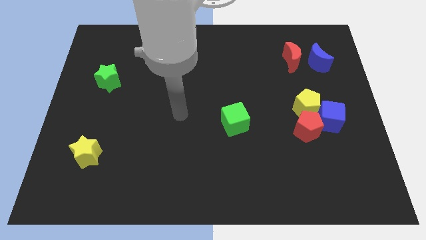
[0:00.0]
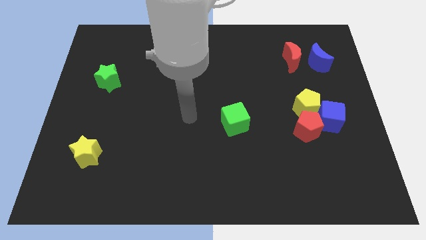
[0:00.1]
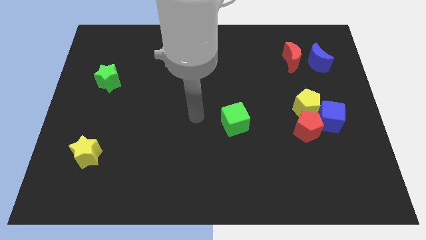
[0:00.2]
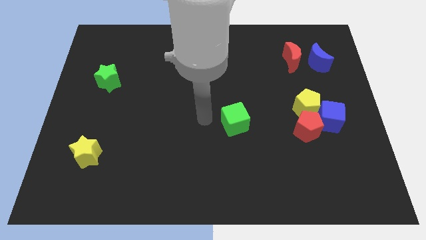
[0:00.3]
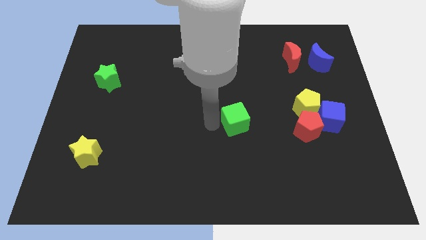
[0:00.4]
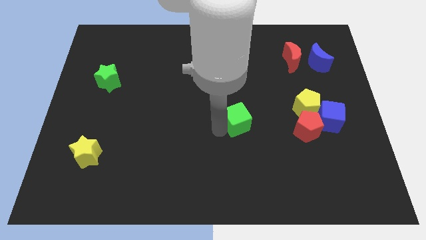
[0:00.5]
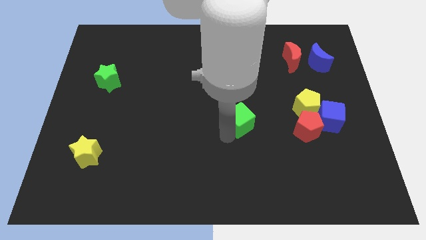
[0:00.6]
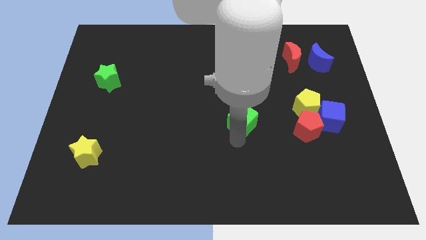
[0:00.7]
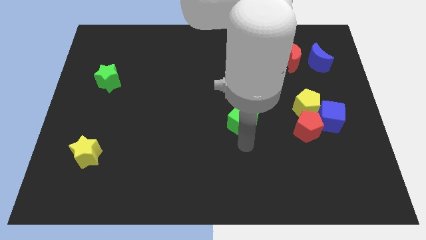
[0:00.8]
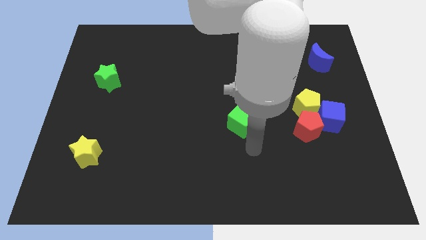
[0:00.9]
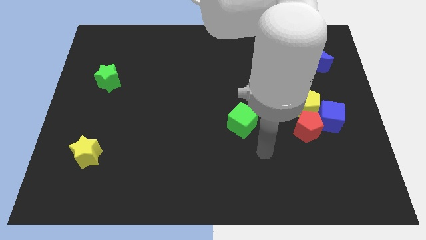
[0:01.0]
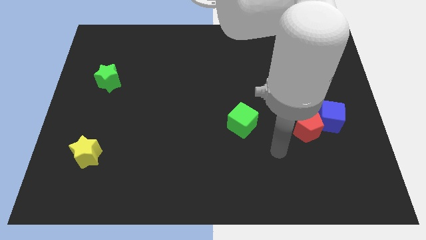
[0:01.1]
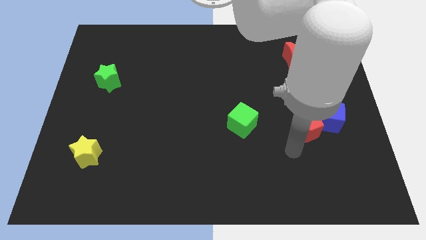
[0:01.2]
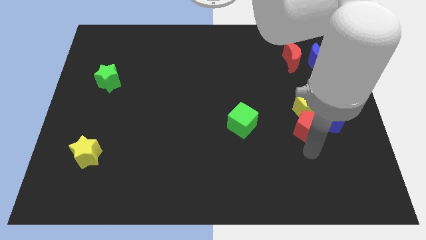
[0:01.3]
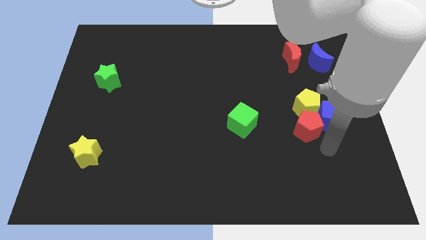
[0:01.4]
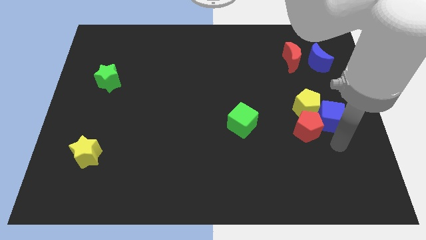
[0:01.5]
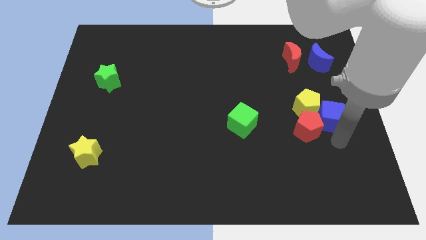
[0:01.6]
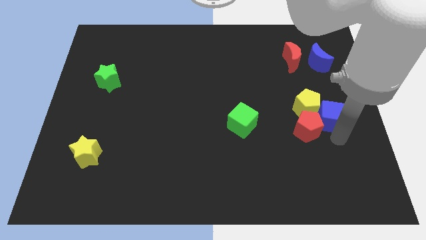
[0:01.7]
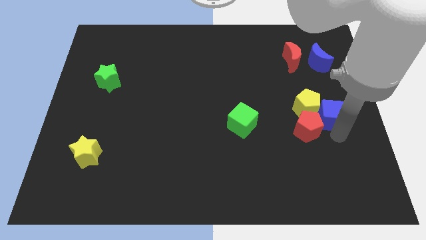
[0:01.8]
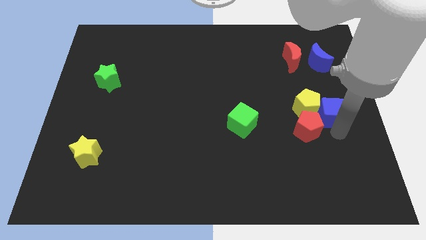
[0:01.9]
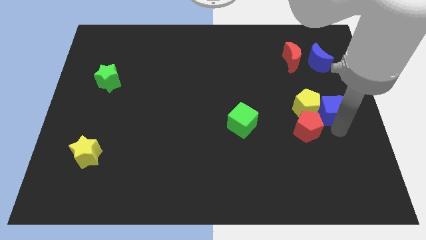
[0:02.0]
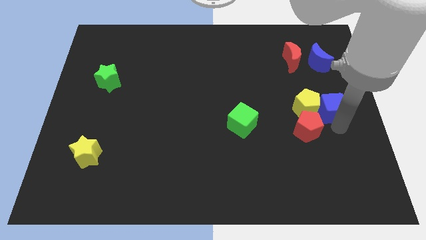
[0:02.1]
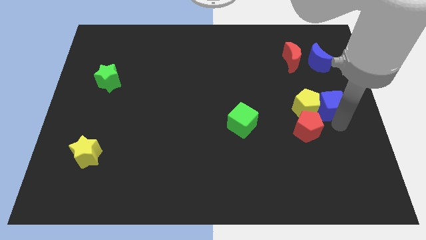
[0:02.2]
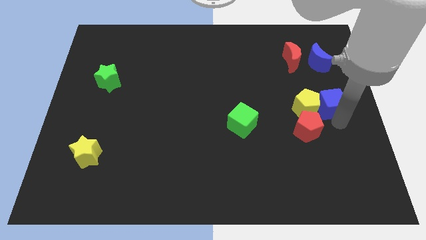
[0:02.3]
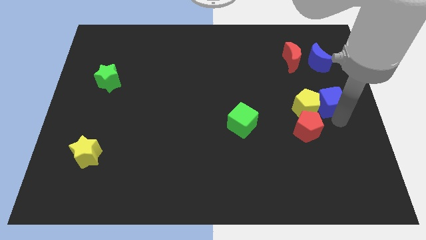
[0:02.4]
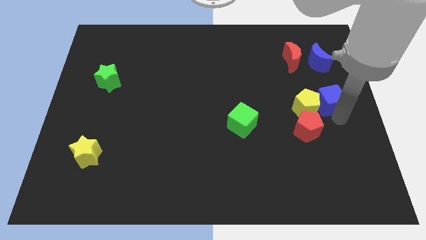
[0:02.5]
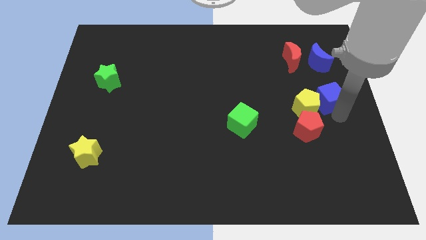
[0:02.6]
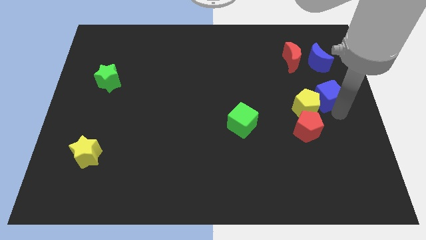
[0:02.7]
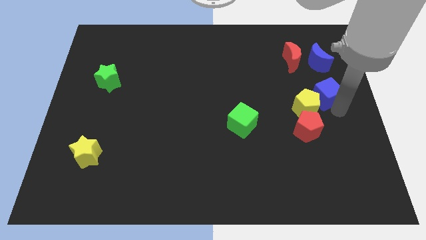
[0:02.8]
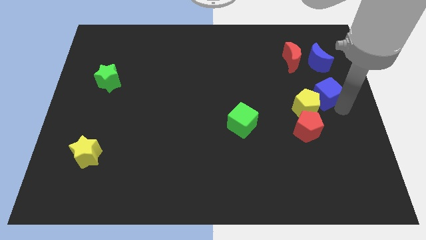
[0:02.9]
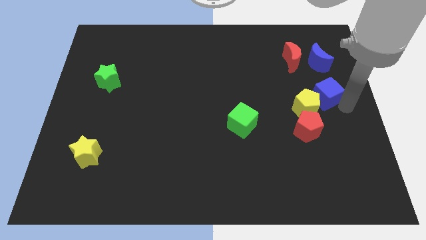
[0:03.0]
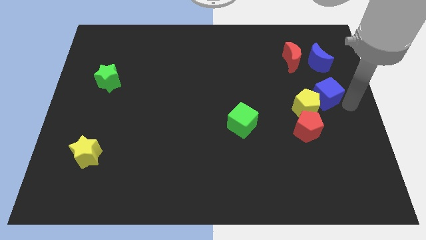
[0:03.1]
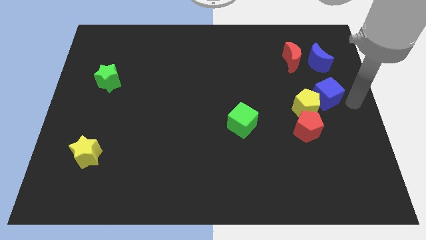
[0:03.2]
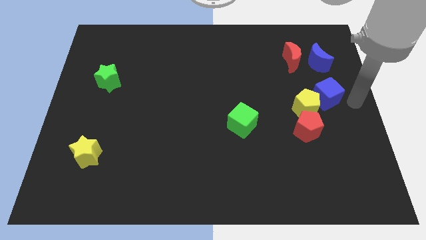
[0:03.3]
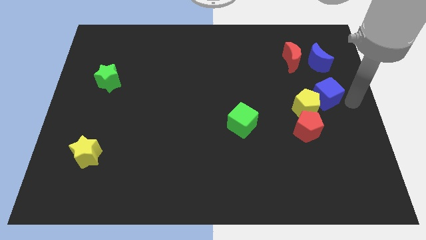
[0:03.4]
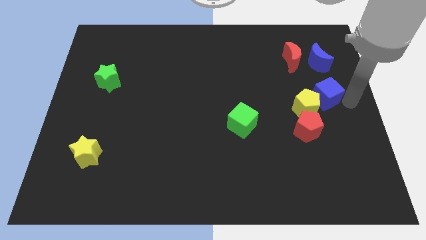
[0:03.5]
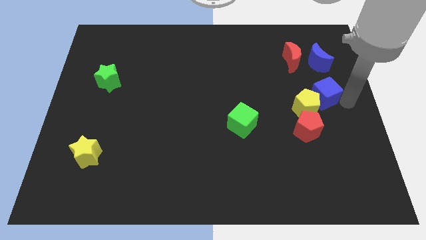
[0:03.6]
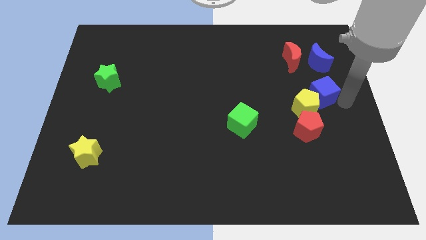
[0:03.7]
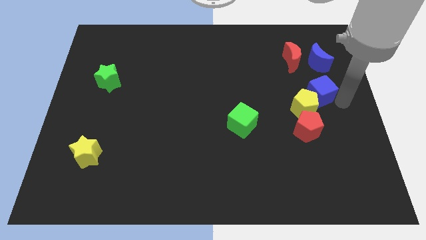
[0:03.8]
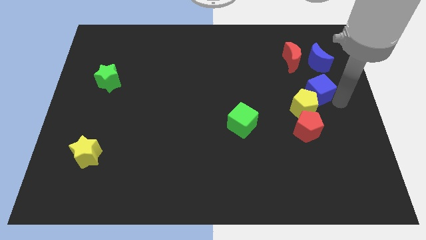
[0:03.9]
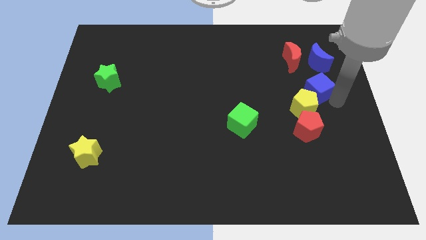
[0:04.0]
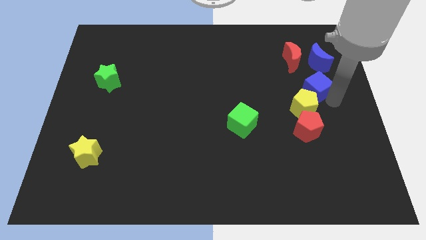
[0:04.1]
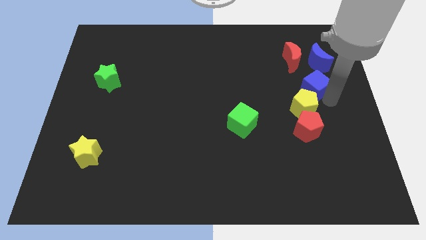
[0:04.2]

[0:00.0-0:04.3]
slightly move the blue cube up and then to the left

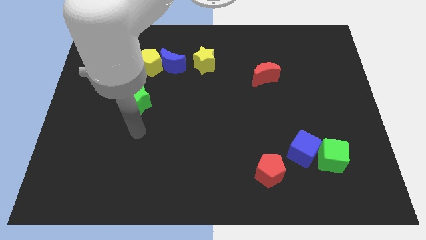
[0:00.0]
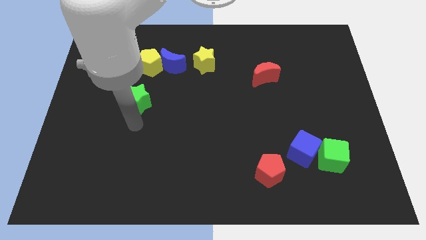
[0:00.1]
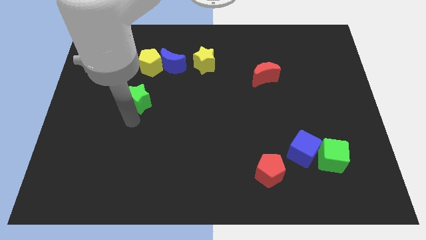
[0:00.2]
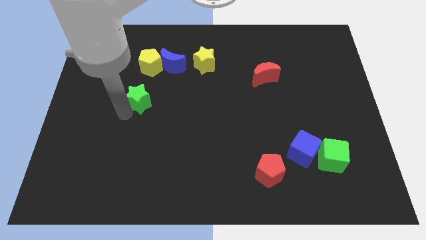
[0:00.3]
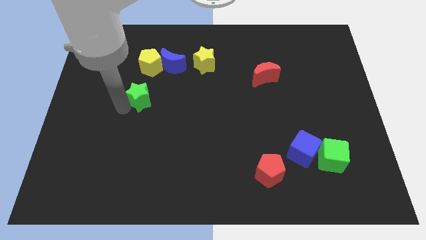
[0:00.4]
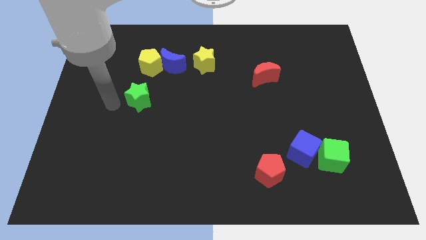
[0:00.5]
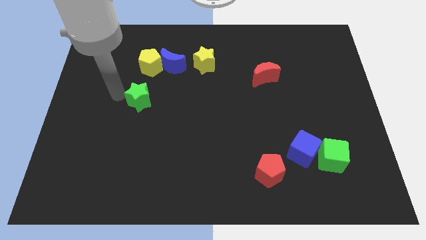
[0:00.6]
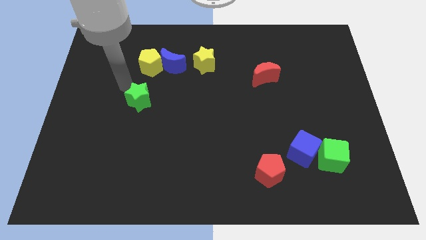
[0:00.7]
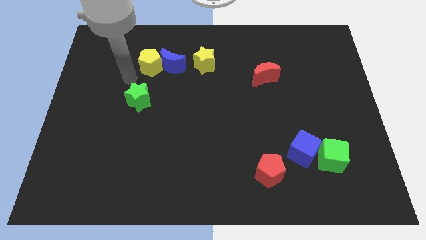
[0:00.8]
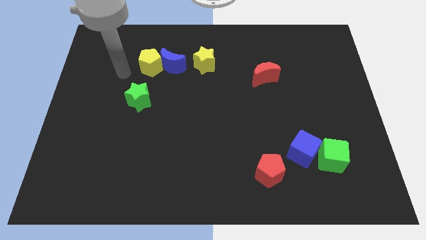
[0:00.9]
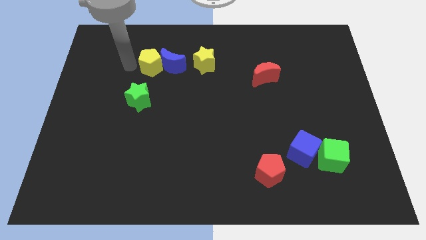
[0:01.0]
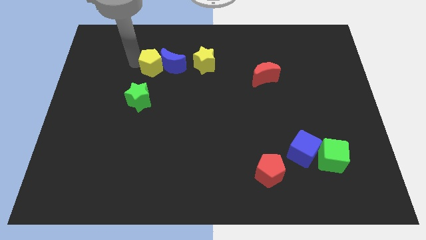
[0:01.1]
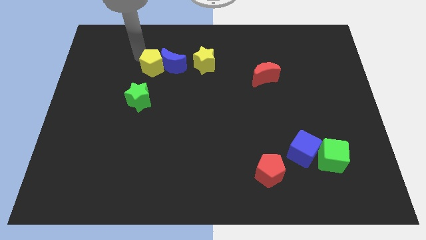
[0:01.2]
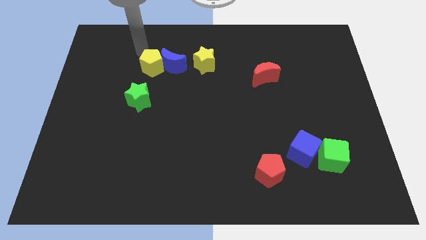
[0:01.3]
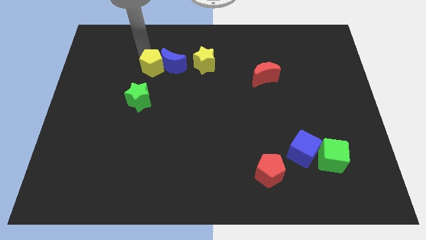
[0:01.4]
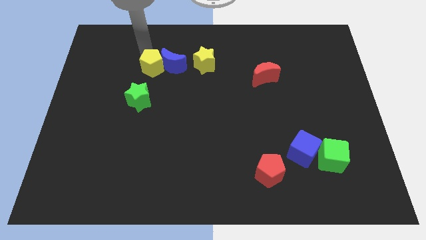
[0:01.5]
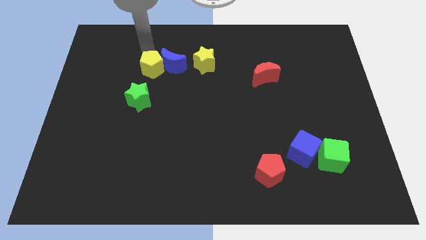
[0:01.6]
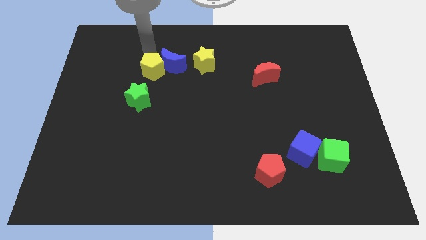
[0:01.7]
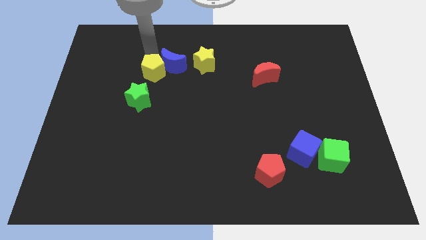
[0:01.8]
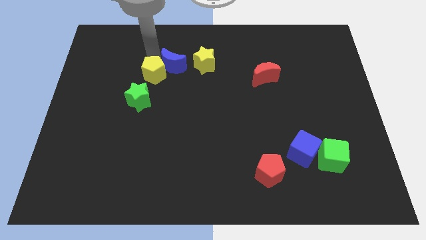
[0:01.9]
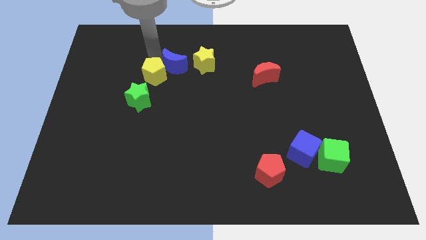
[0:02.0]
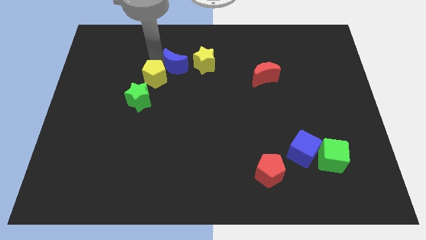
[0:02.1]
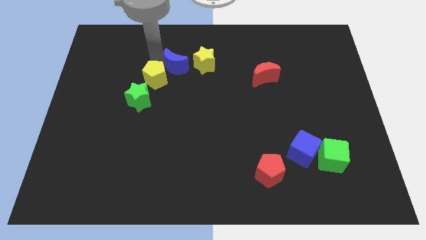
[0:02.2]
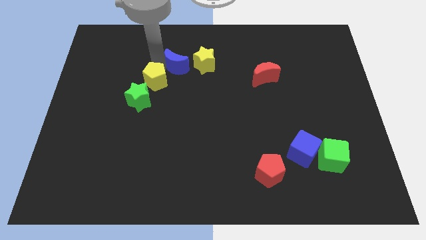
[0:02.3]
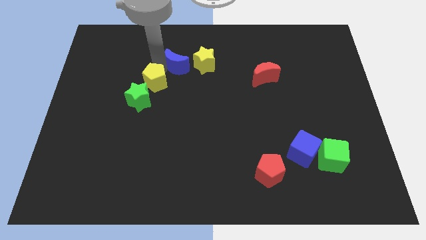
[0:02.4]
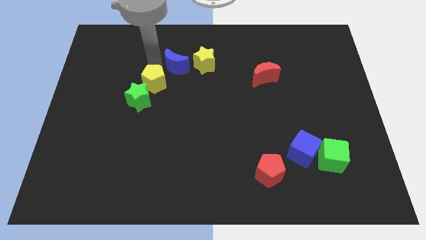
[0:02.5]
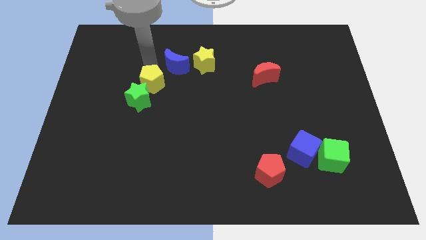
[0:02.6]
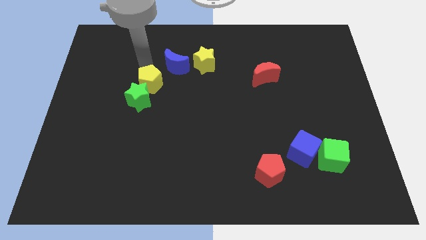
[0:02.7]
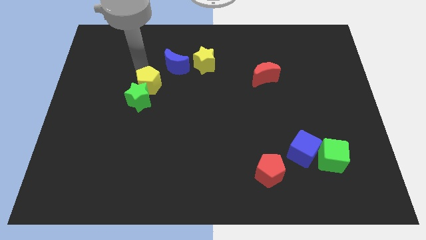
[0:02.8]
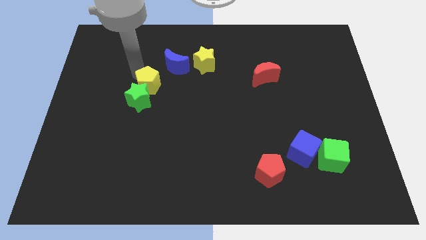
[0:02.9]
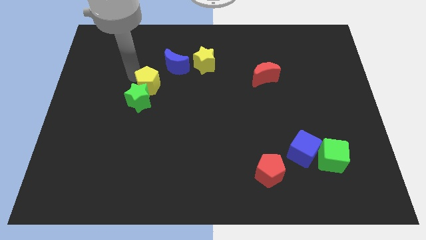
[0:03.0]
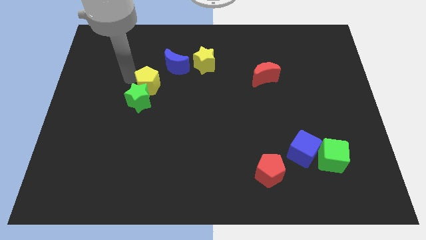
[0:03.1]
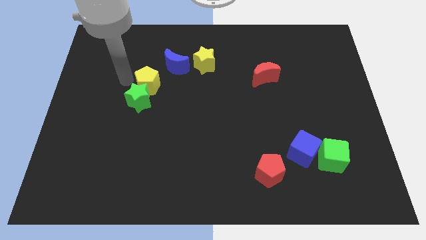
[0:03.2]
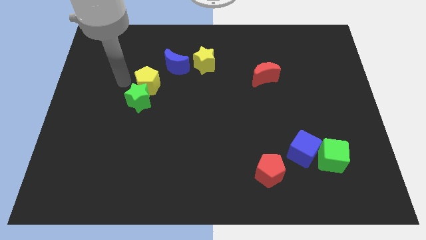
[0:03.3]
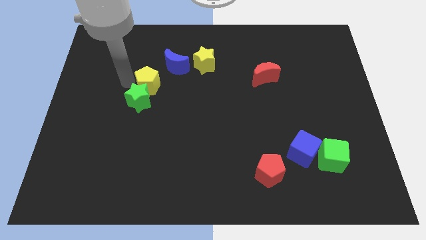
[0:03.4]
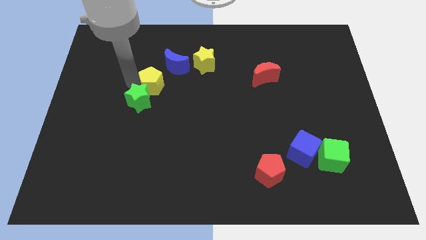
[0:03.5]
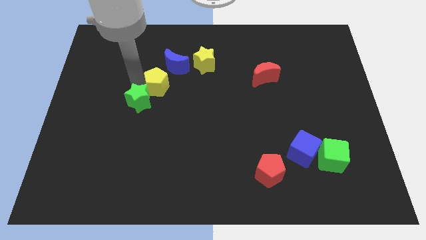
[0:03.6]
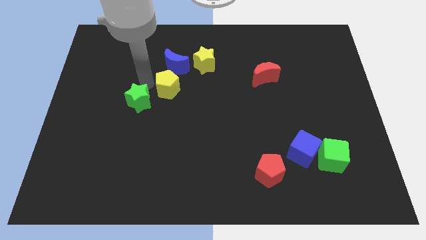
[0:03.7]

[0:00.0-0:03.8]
move the yellow pentagon downwards and to the right diagonally somewhat

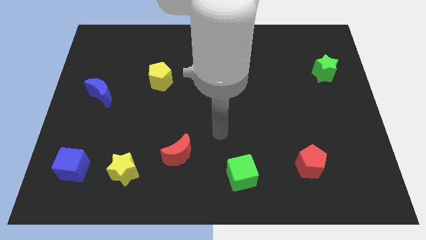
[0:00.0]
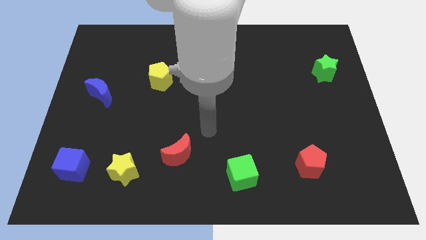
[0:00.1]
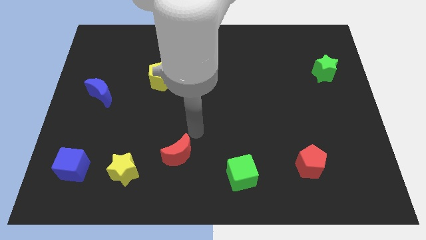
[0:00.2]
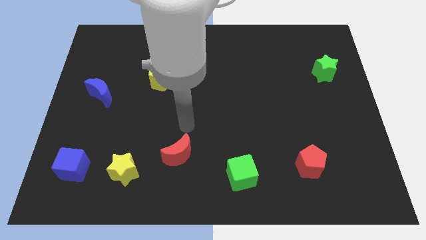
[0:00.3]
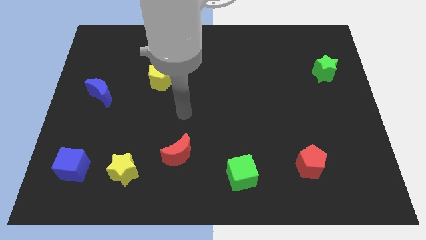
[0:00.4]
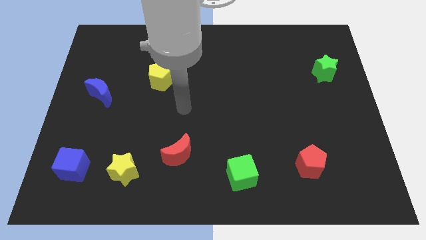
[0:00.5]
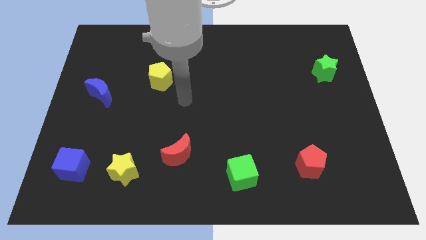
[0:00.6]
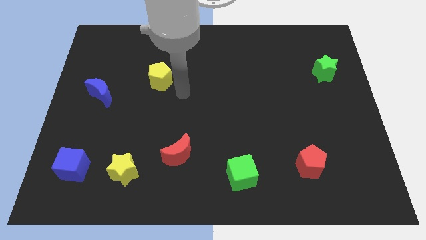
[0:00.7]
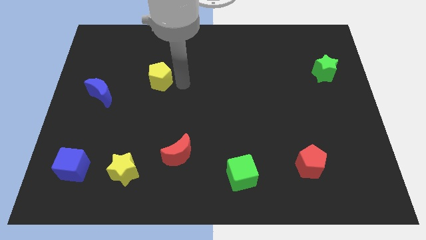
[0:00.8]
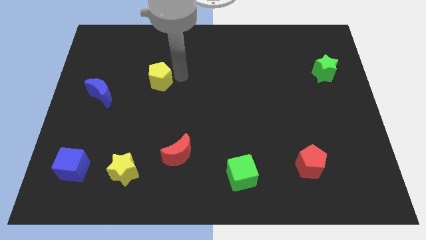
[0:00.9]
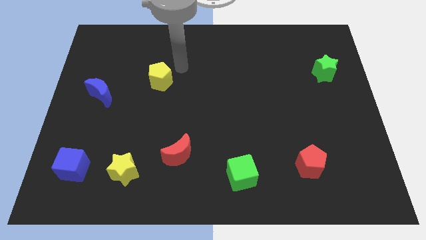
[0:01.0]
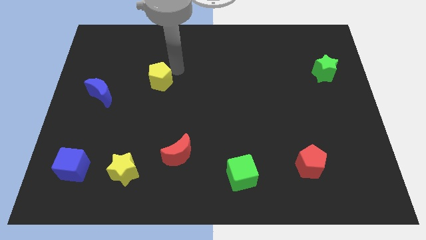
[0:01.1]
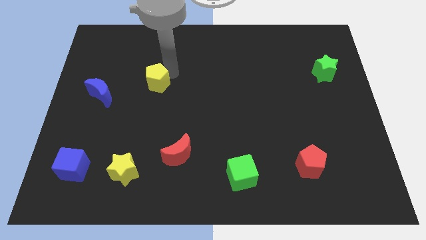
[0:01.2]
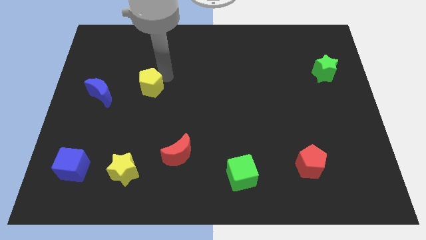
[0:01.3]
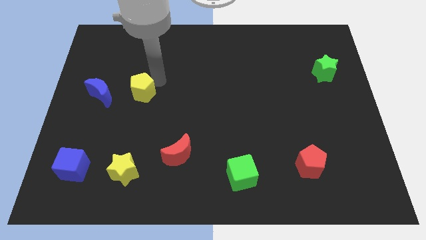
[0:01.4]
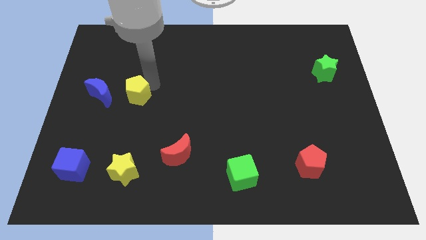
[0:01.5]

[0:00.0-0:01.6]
slightly move the yellow pentagon diagonally down and to the left
